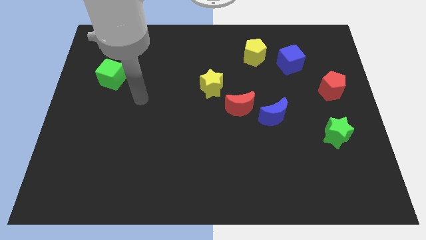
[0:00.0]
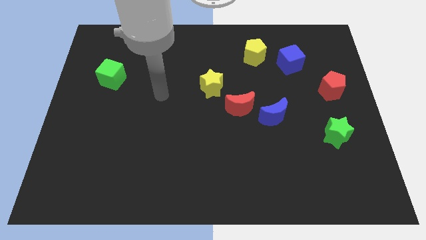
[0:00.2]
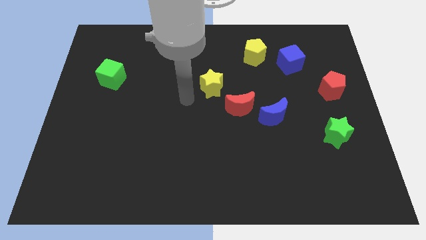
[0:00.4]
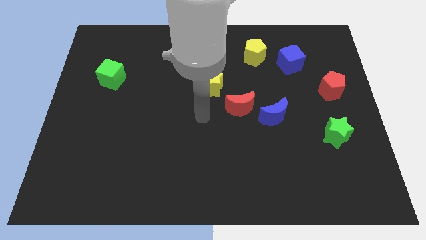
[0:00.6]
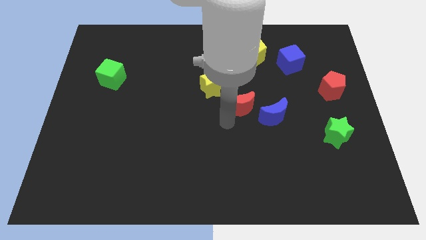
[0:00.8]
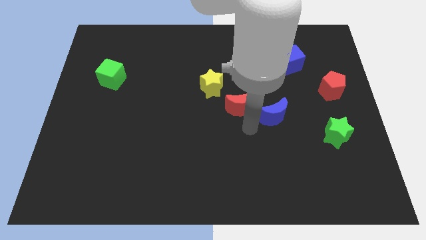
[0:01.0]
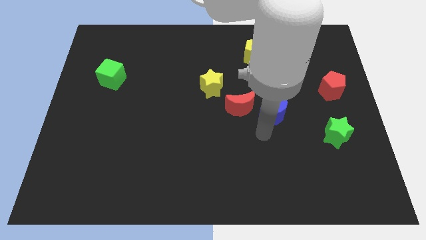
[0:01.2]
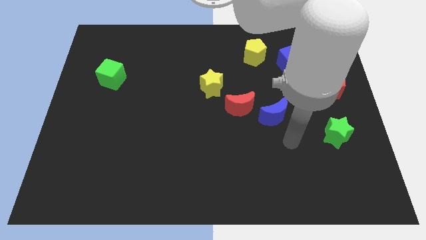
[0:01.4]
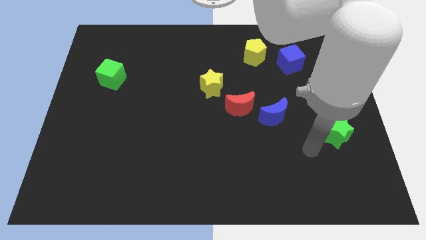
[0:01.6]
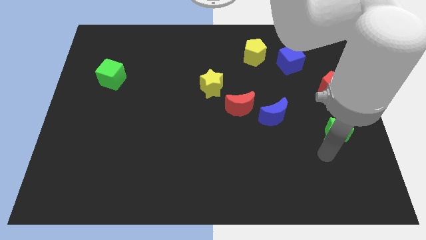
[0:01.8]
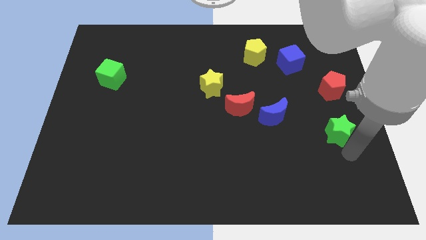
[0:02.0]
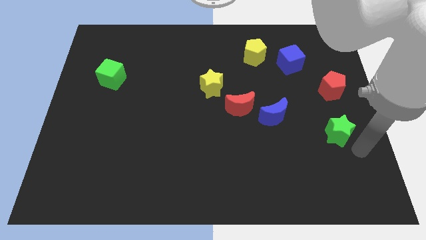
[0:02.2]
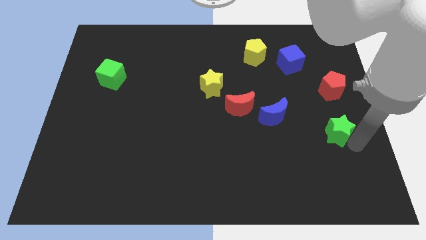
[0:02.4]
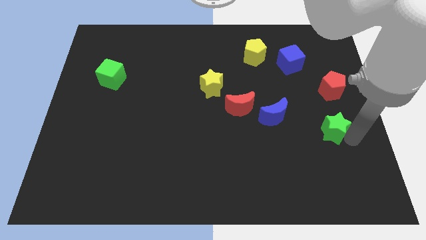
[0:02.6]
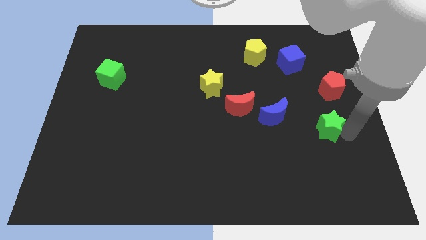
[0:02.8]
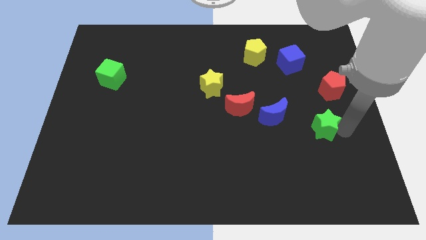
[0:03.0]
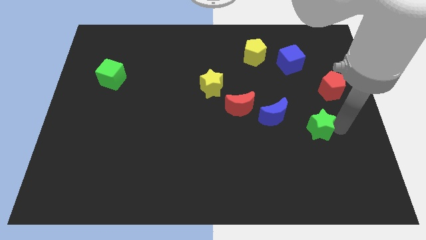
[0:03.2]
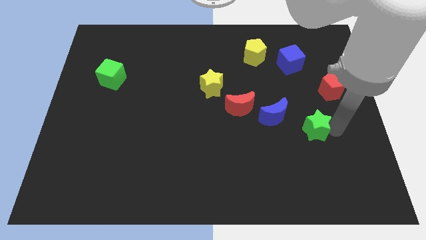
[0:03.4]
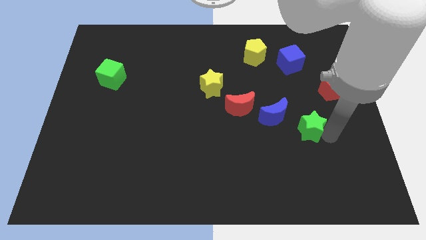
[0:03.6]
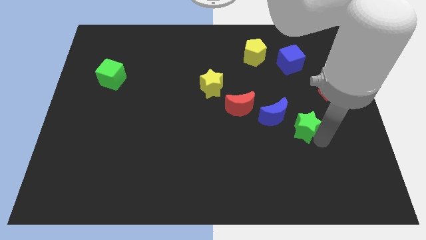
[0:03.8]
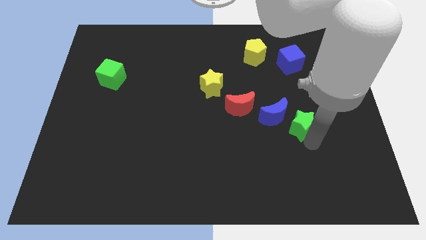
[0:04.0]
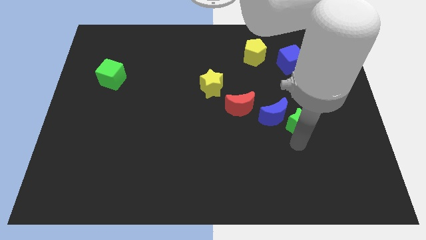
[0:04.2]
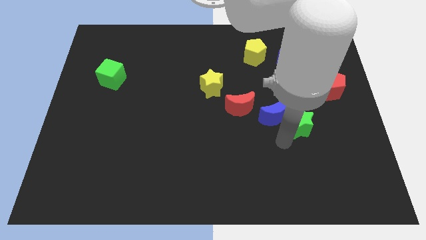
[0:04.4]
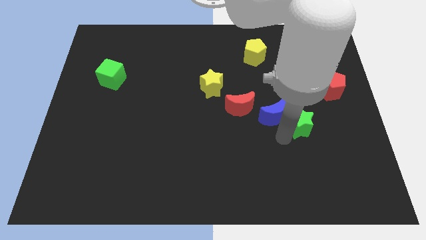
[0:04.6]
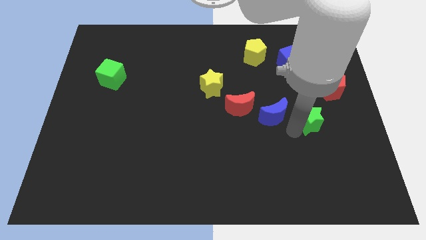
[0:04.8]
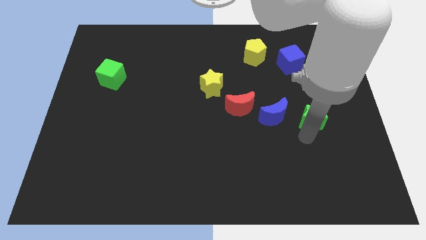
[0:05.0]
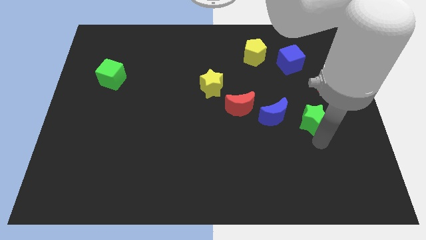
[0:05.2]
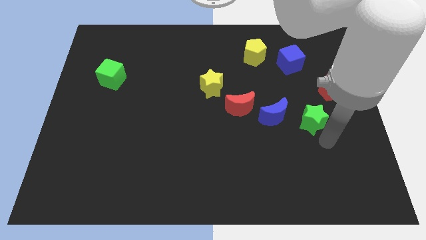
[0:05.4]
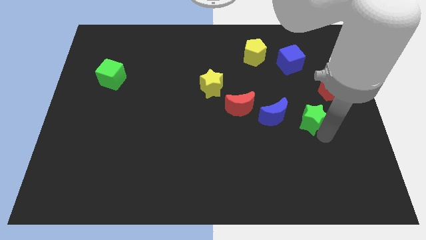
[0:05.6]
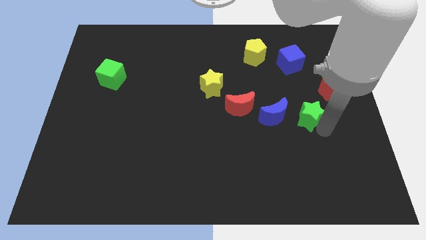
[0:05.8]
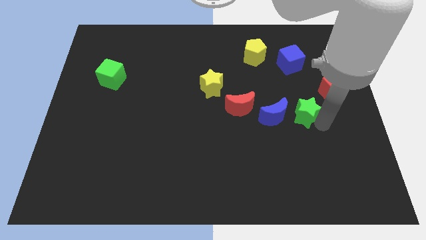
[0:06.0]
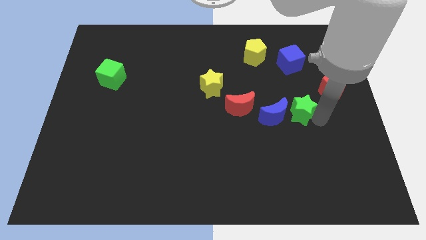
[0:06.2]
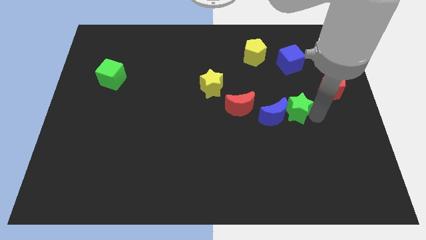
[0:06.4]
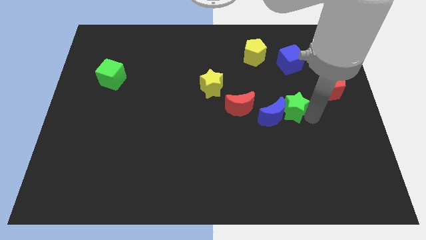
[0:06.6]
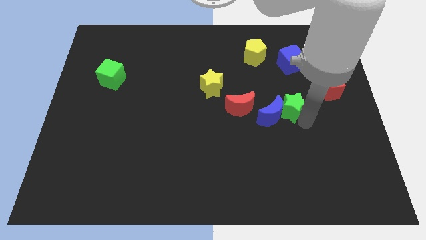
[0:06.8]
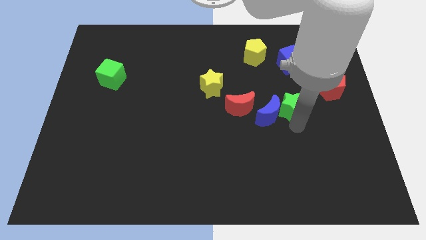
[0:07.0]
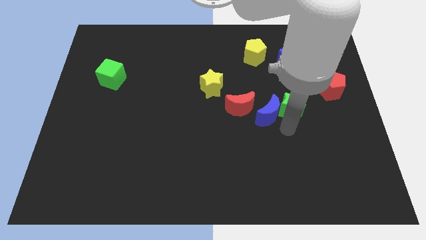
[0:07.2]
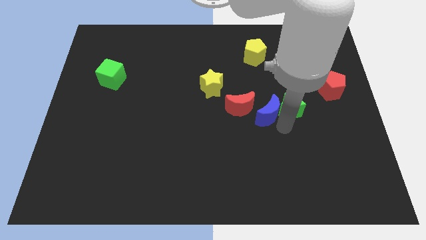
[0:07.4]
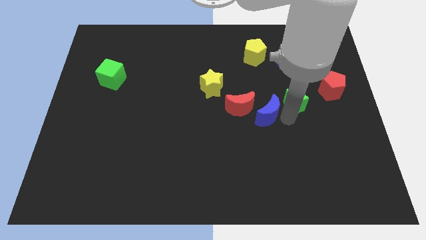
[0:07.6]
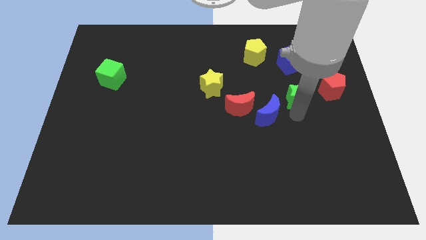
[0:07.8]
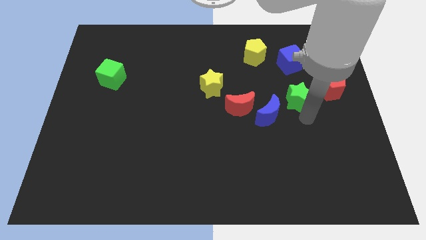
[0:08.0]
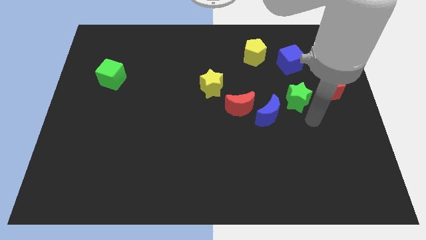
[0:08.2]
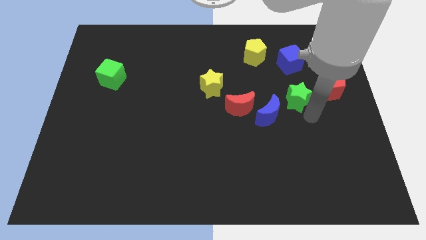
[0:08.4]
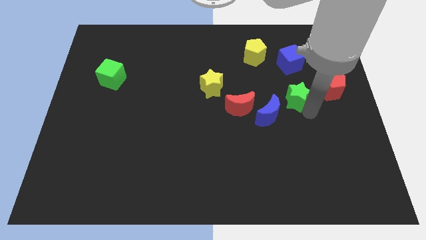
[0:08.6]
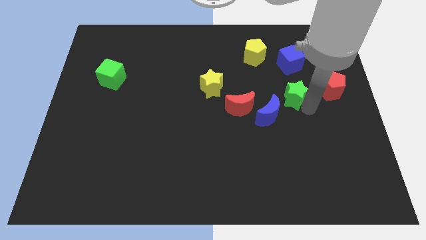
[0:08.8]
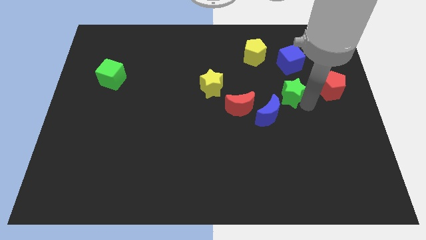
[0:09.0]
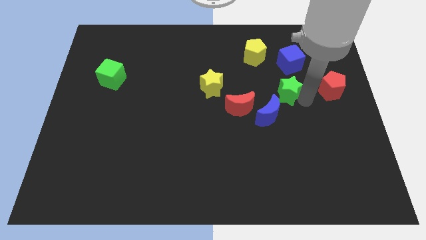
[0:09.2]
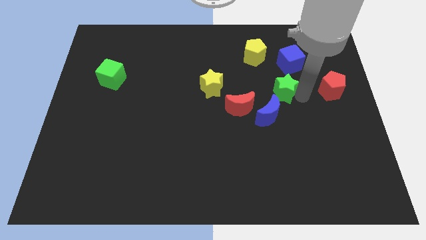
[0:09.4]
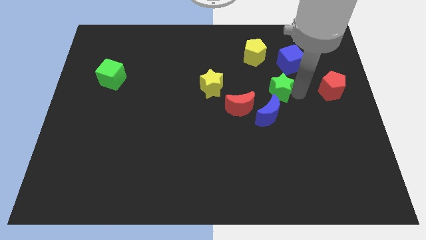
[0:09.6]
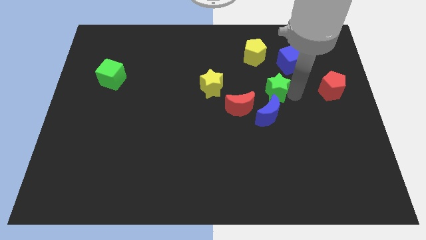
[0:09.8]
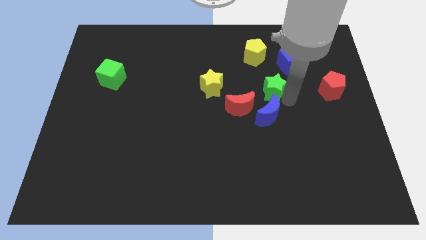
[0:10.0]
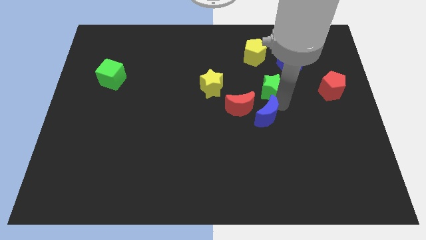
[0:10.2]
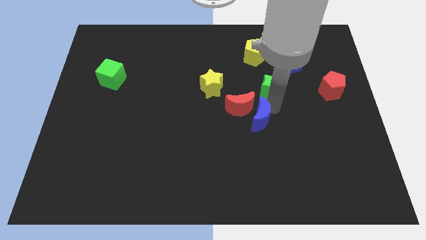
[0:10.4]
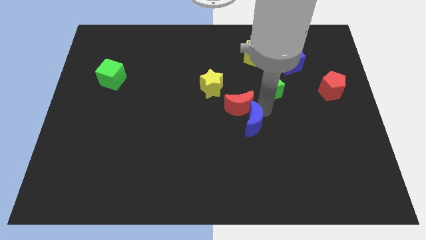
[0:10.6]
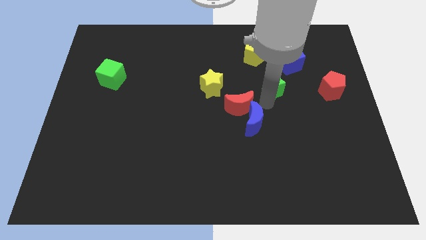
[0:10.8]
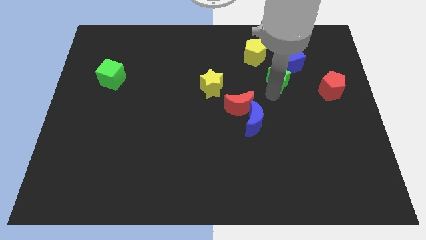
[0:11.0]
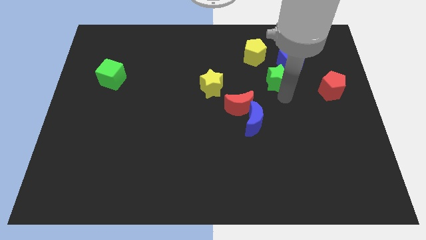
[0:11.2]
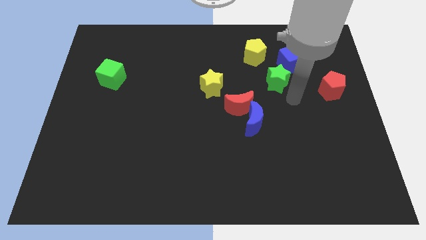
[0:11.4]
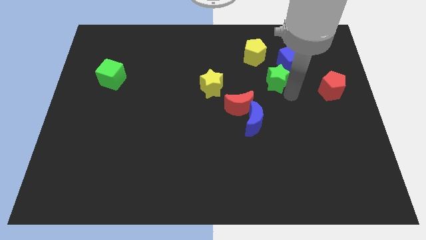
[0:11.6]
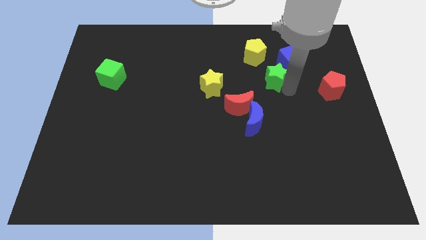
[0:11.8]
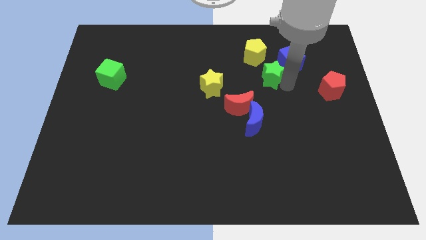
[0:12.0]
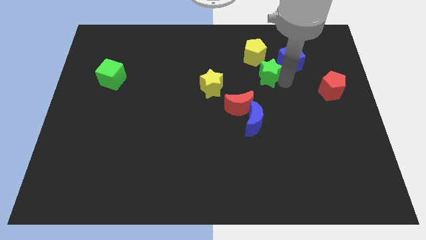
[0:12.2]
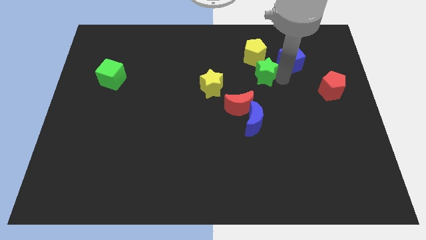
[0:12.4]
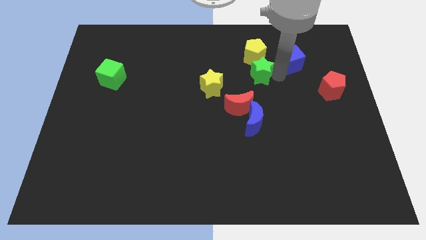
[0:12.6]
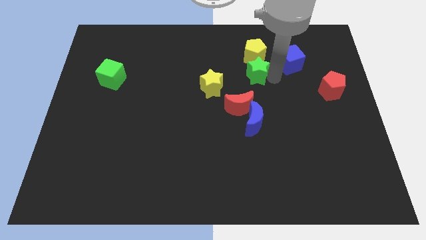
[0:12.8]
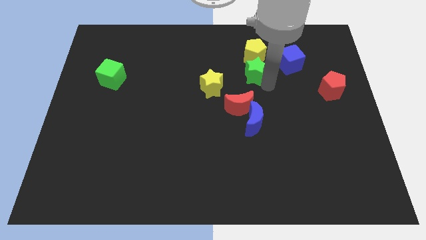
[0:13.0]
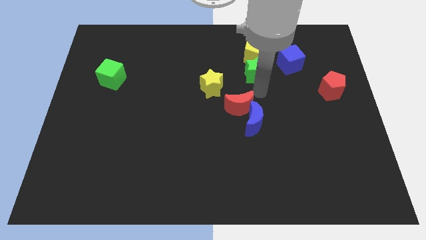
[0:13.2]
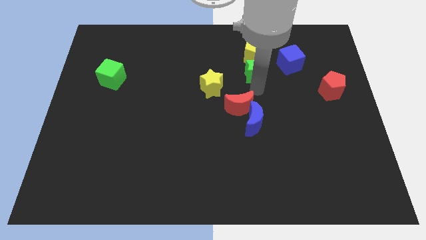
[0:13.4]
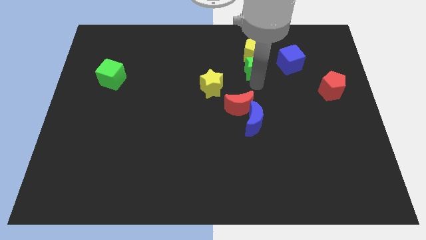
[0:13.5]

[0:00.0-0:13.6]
move the green star to the yellow pentagon
